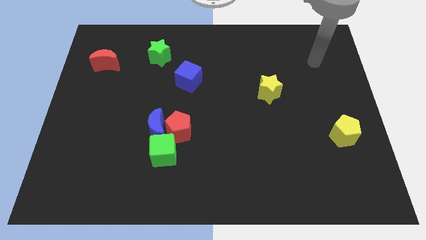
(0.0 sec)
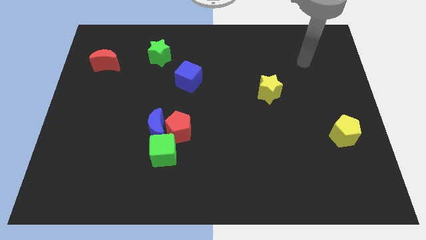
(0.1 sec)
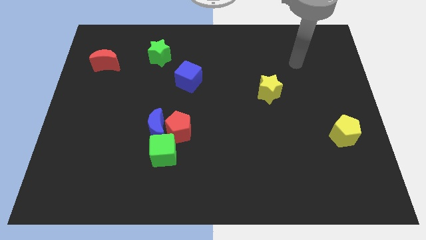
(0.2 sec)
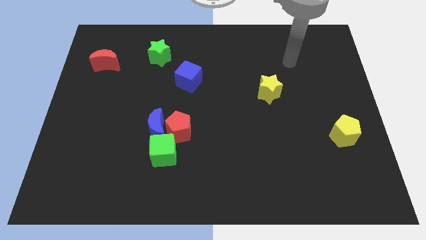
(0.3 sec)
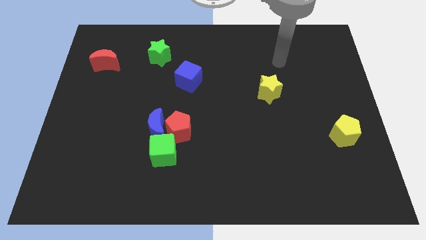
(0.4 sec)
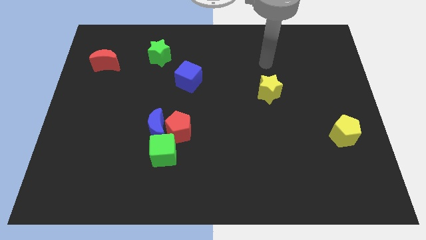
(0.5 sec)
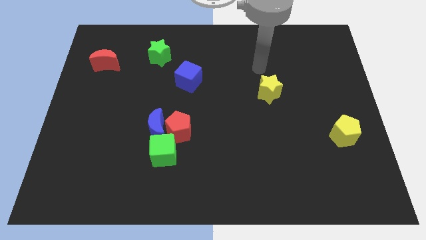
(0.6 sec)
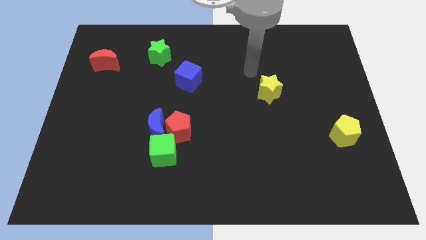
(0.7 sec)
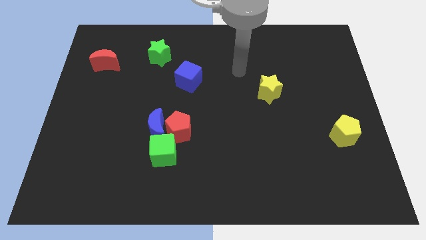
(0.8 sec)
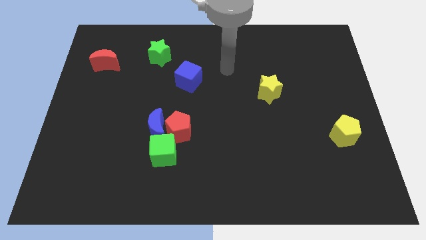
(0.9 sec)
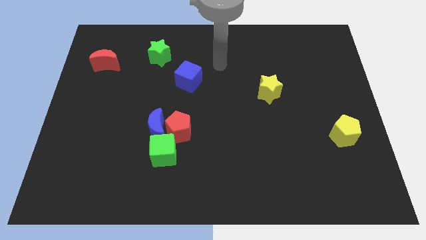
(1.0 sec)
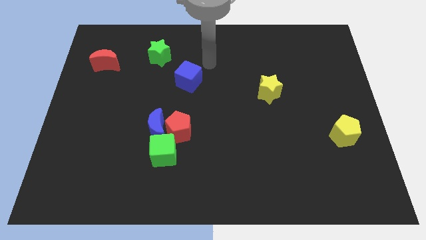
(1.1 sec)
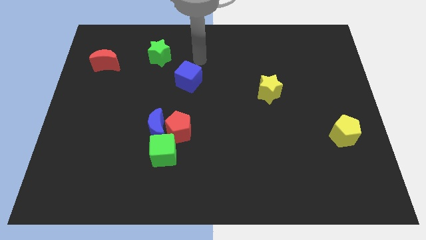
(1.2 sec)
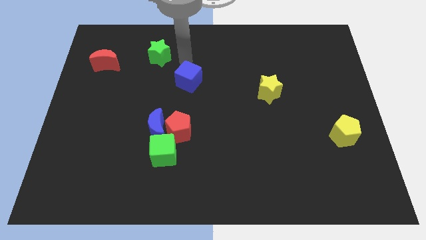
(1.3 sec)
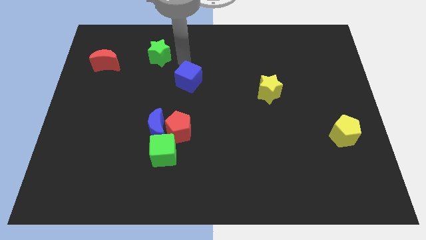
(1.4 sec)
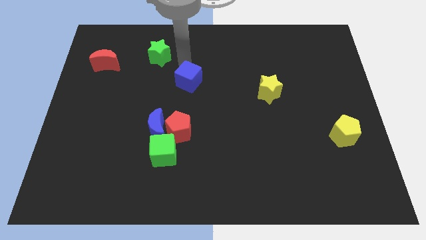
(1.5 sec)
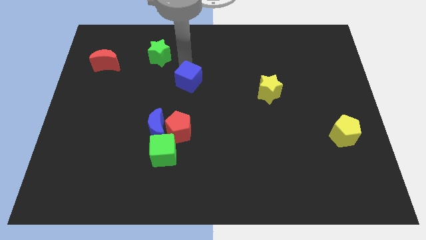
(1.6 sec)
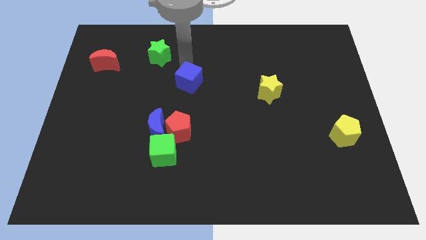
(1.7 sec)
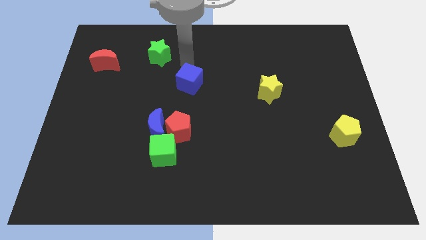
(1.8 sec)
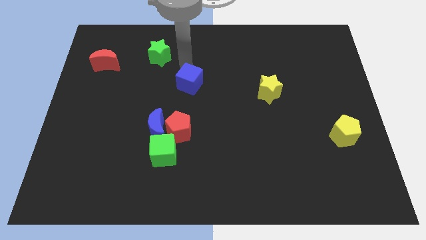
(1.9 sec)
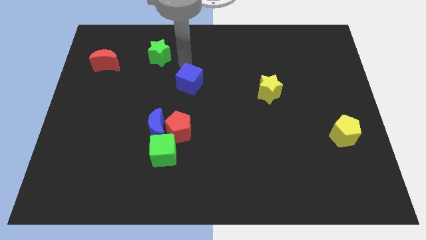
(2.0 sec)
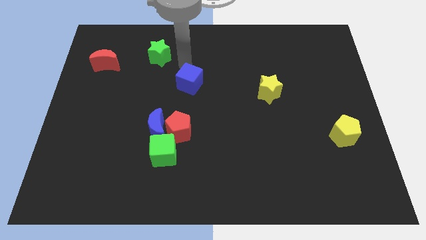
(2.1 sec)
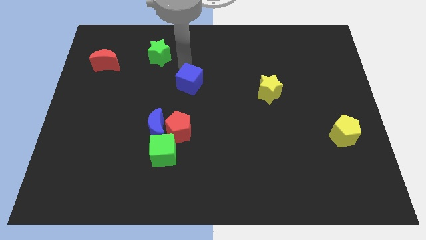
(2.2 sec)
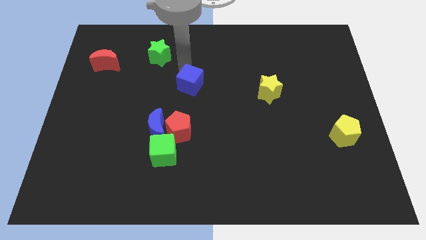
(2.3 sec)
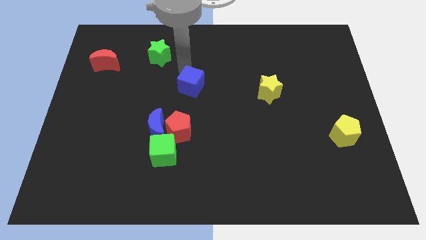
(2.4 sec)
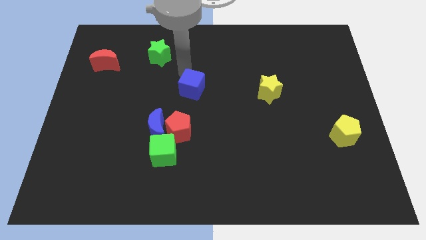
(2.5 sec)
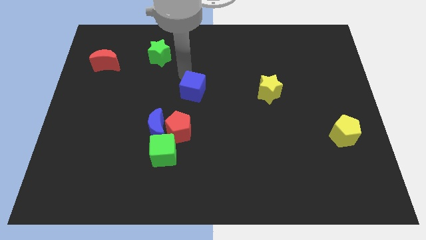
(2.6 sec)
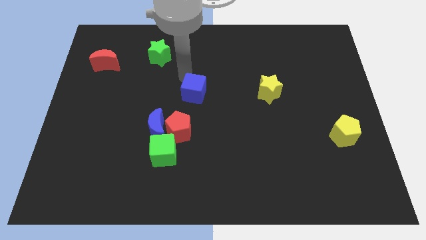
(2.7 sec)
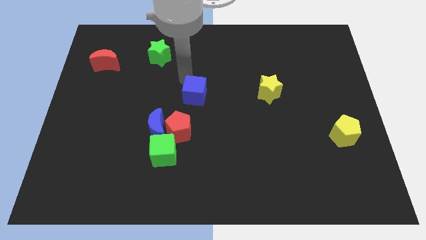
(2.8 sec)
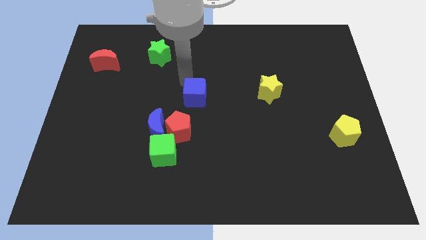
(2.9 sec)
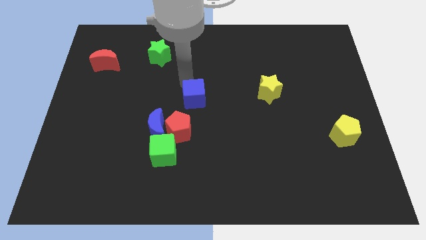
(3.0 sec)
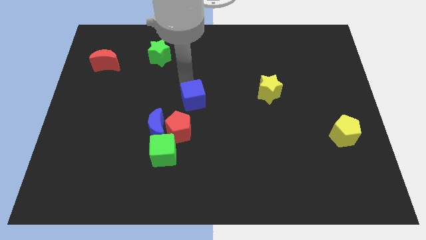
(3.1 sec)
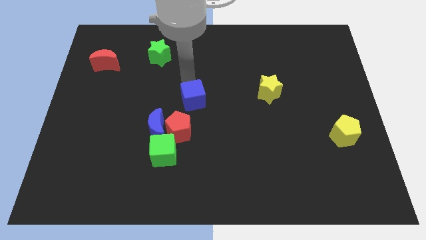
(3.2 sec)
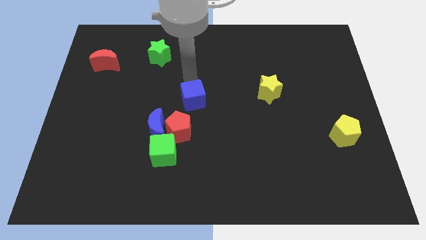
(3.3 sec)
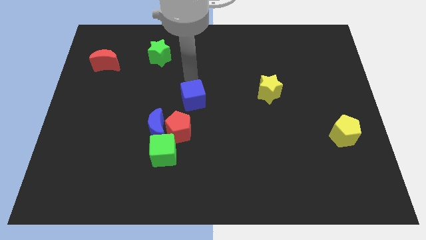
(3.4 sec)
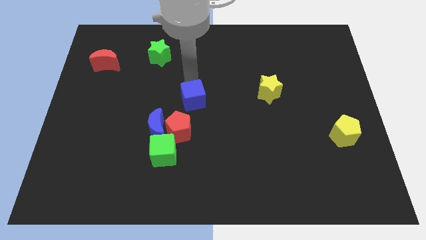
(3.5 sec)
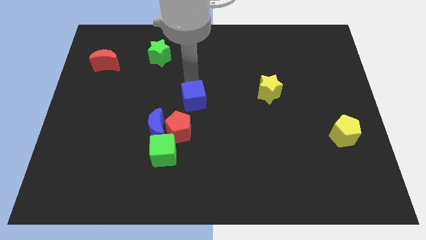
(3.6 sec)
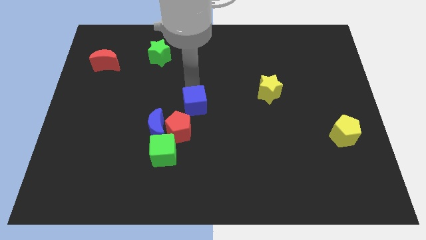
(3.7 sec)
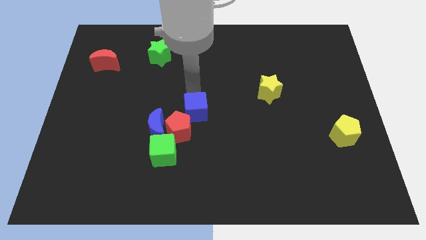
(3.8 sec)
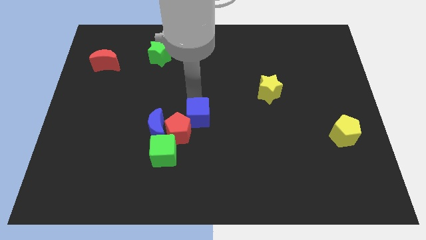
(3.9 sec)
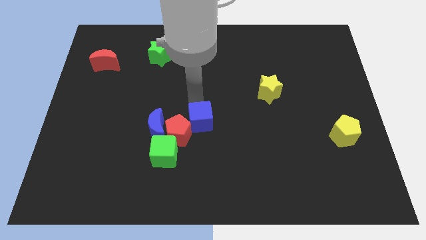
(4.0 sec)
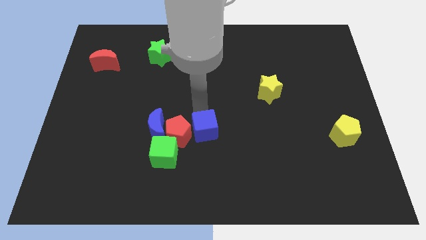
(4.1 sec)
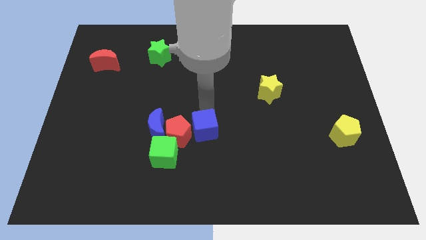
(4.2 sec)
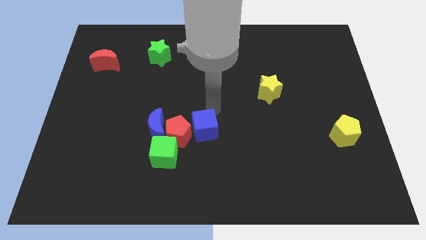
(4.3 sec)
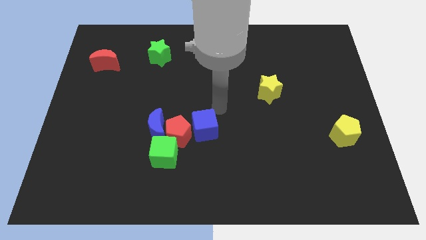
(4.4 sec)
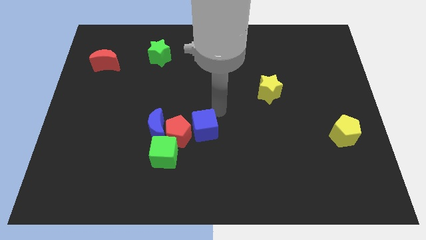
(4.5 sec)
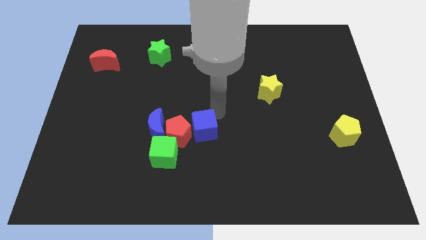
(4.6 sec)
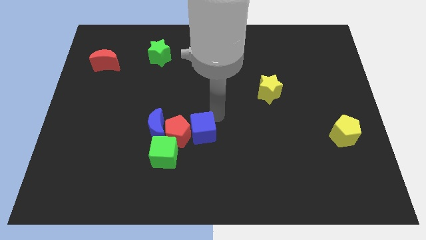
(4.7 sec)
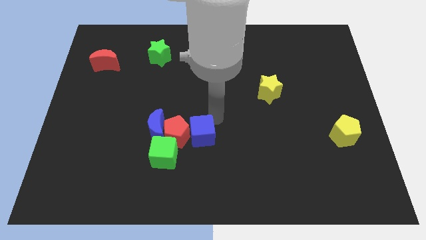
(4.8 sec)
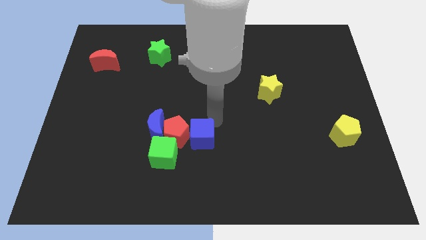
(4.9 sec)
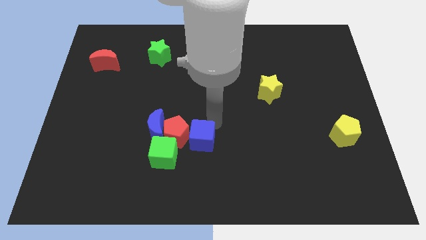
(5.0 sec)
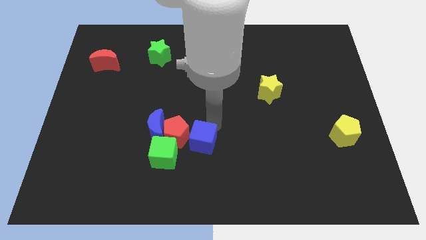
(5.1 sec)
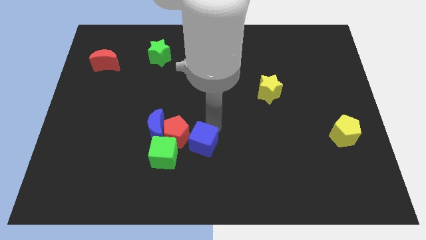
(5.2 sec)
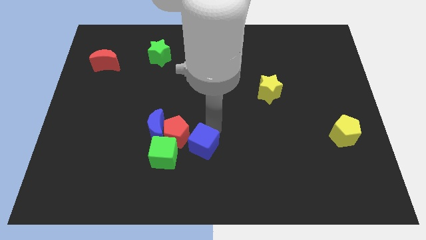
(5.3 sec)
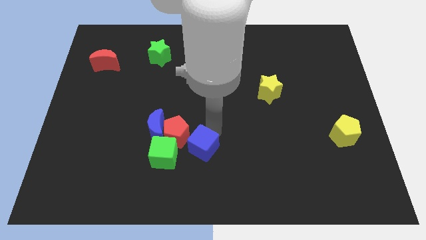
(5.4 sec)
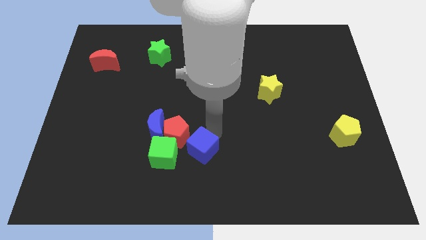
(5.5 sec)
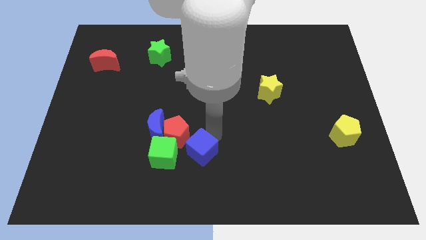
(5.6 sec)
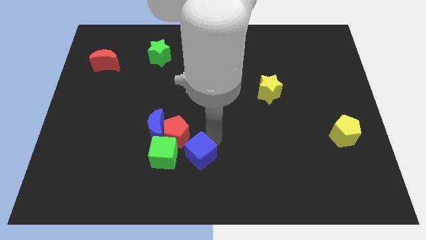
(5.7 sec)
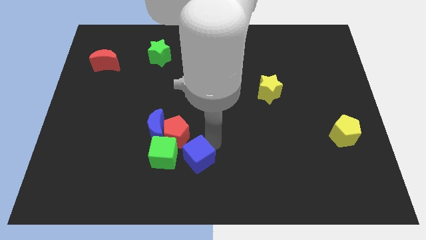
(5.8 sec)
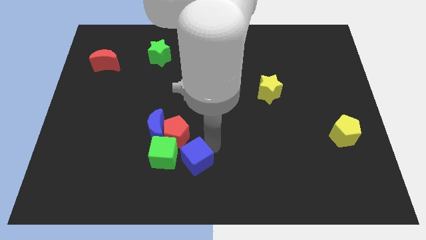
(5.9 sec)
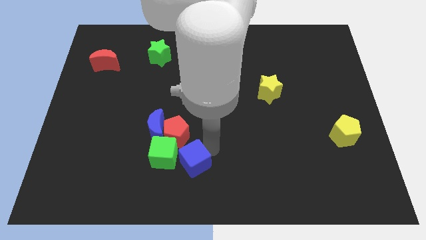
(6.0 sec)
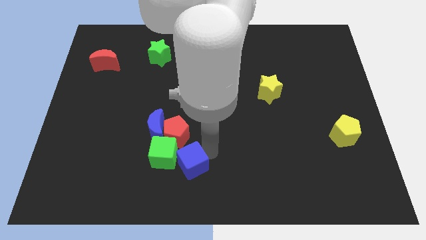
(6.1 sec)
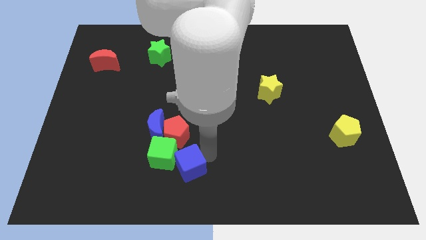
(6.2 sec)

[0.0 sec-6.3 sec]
push the blue cube to the green cube
